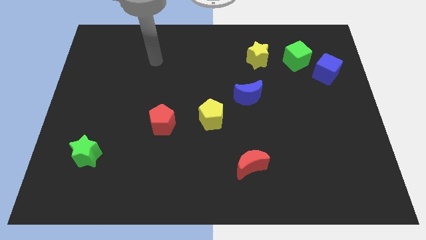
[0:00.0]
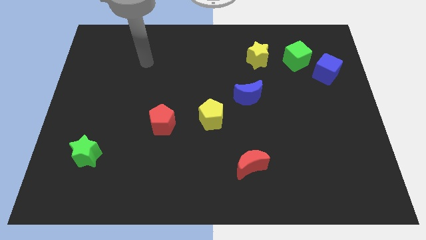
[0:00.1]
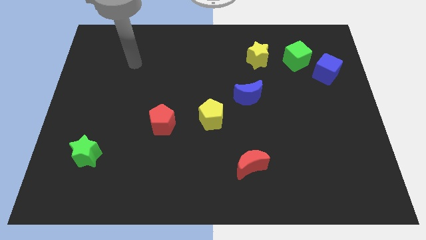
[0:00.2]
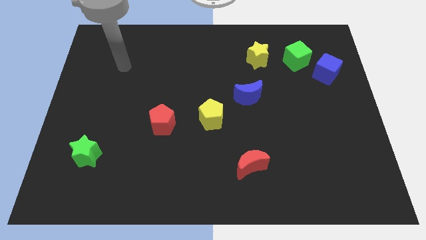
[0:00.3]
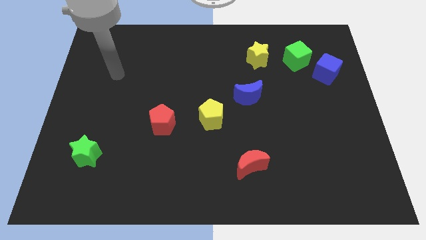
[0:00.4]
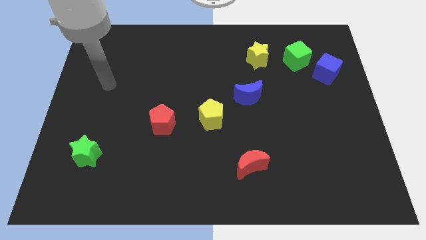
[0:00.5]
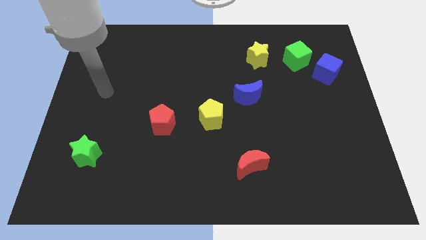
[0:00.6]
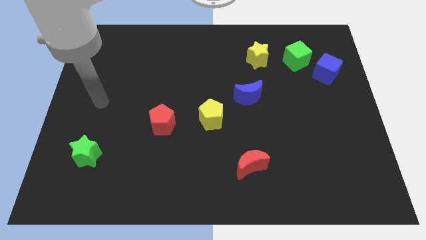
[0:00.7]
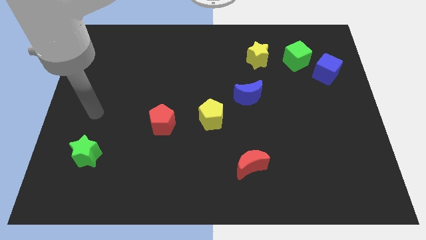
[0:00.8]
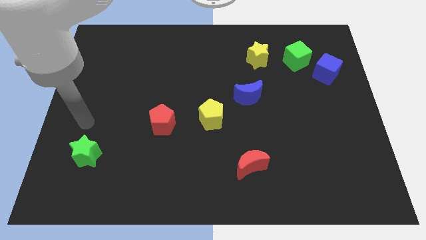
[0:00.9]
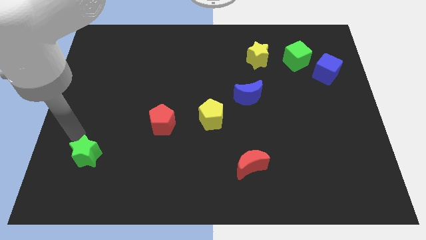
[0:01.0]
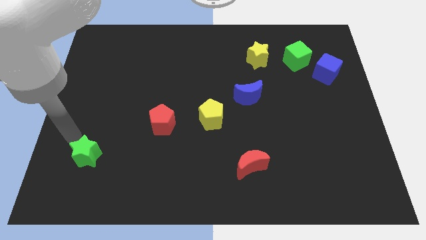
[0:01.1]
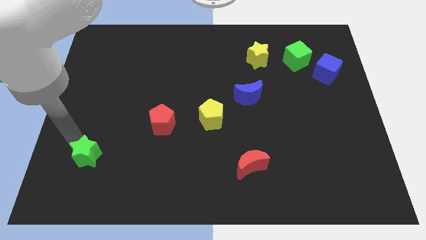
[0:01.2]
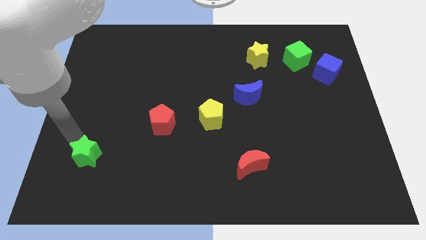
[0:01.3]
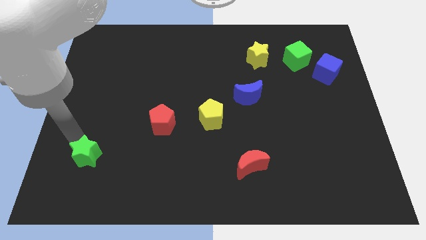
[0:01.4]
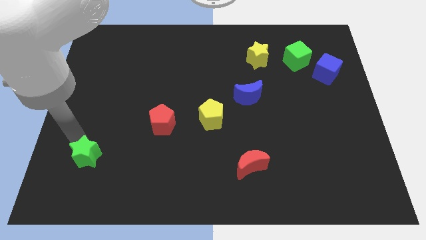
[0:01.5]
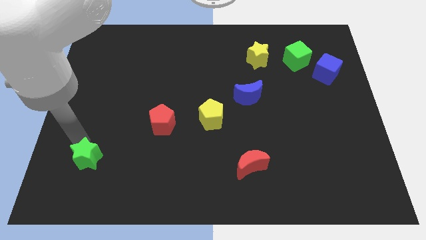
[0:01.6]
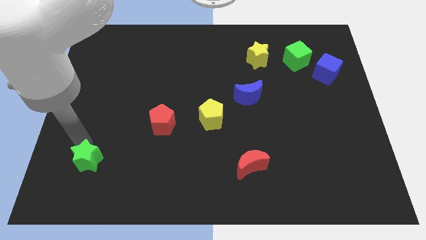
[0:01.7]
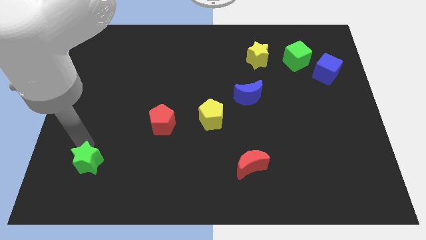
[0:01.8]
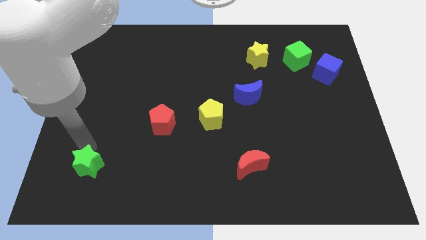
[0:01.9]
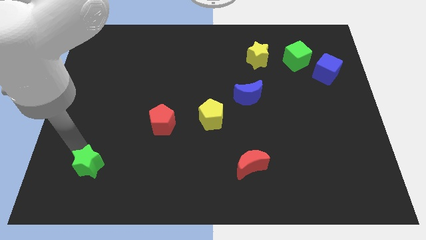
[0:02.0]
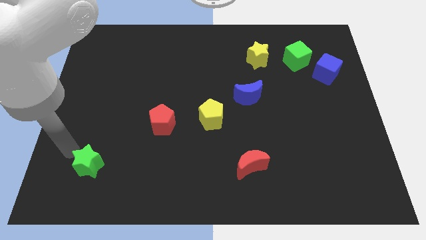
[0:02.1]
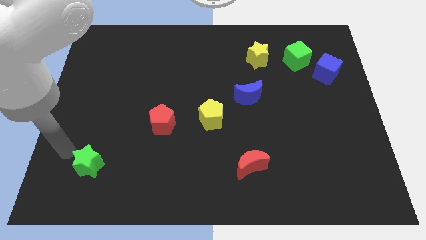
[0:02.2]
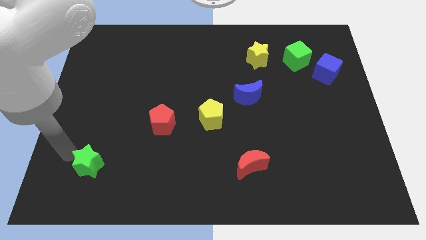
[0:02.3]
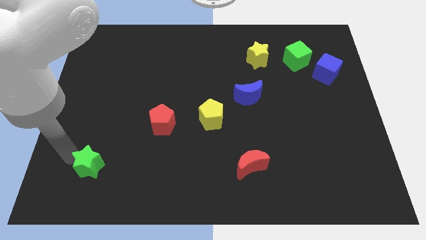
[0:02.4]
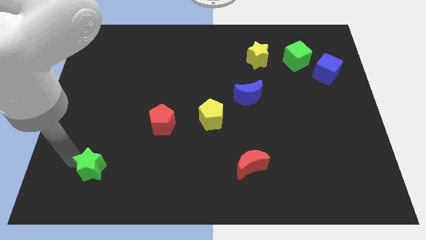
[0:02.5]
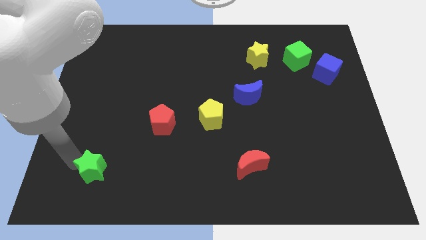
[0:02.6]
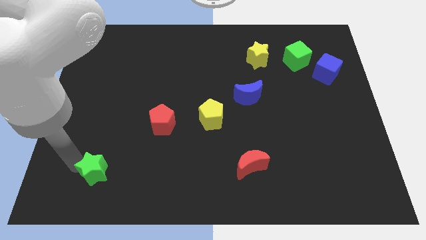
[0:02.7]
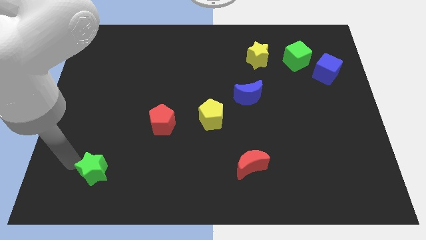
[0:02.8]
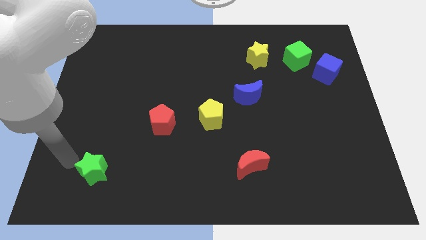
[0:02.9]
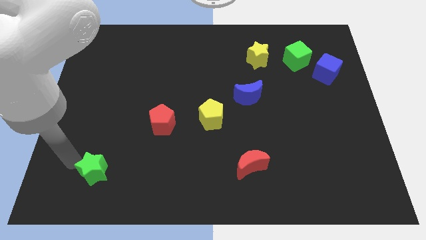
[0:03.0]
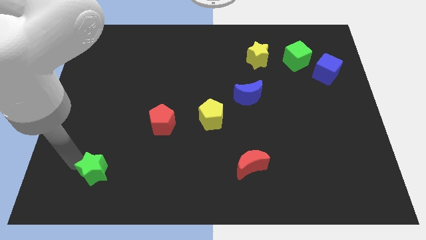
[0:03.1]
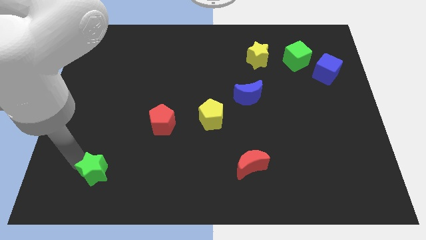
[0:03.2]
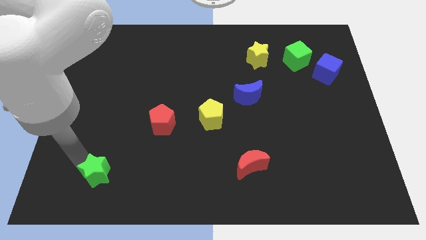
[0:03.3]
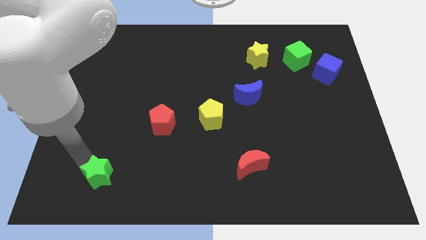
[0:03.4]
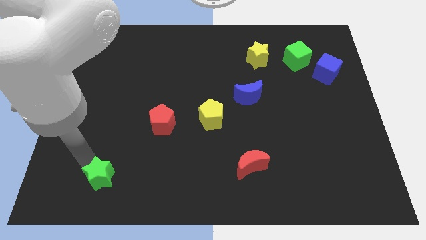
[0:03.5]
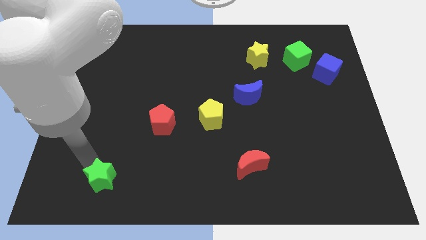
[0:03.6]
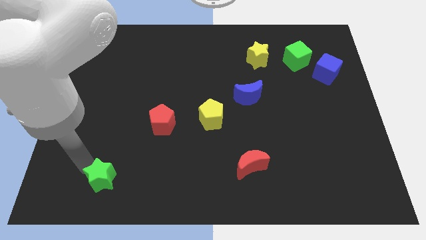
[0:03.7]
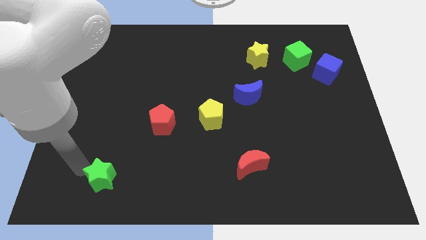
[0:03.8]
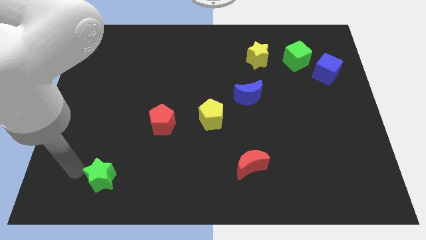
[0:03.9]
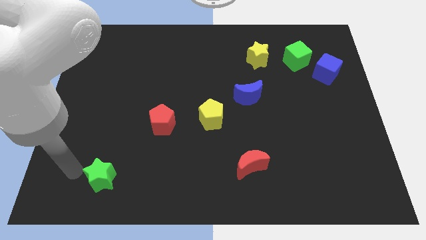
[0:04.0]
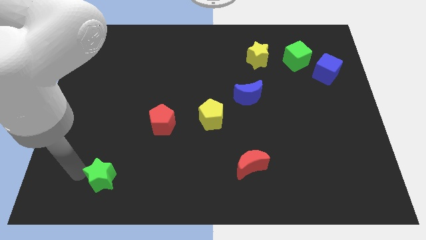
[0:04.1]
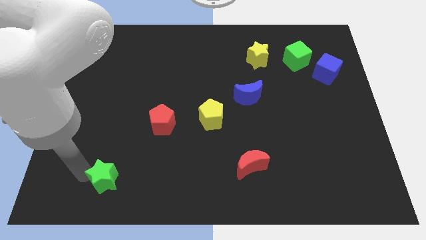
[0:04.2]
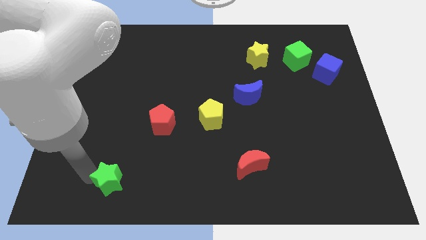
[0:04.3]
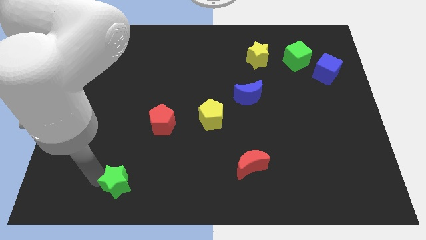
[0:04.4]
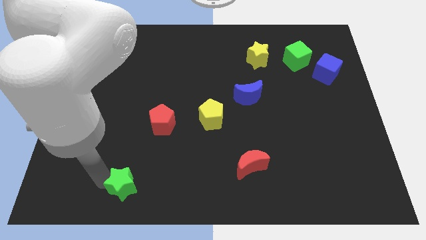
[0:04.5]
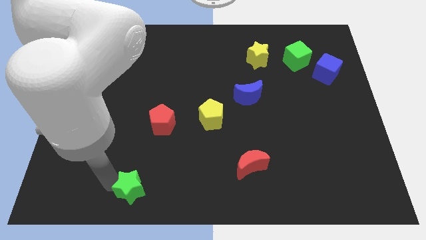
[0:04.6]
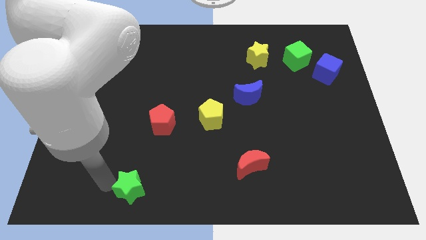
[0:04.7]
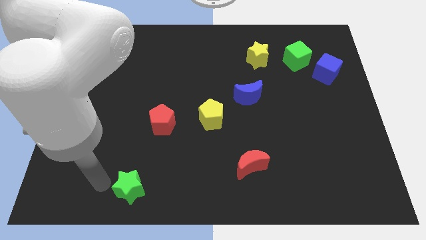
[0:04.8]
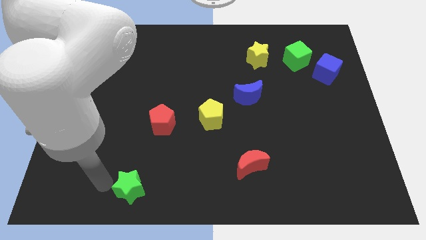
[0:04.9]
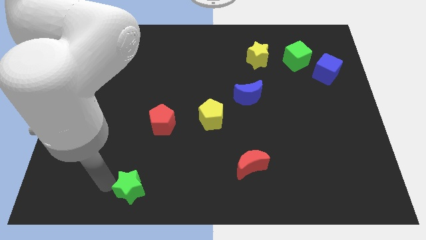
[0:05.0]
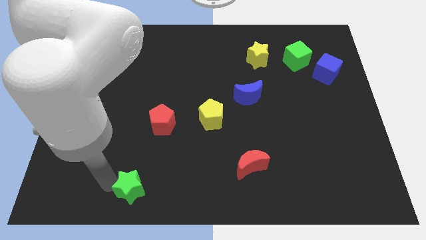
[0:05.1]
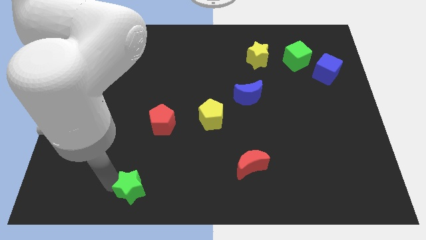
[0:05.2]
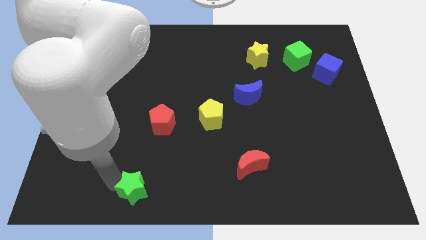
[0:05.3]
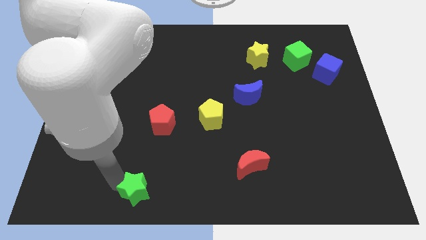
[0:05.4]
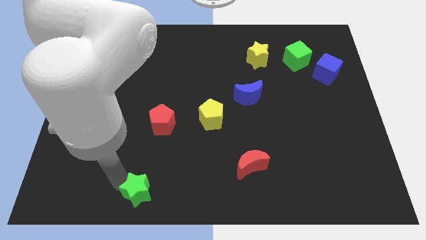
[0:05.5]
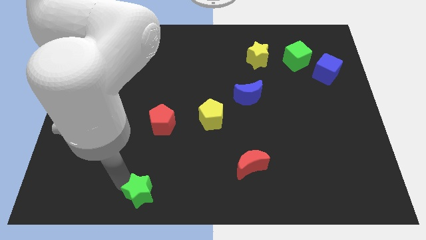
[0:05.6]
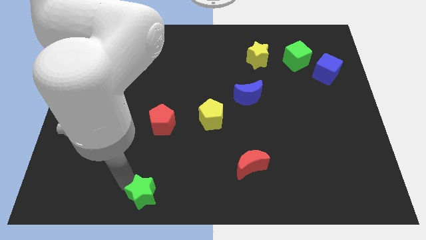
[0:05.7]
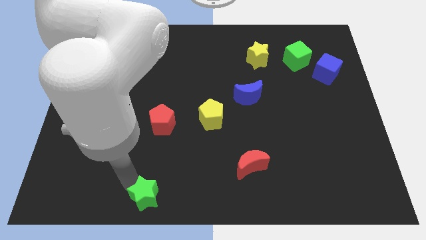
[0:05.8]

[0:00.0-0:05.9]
push the green star to the bottom
